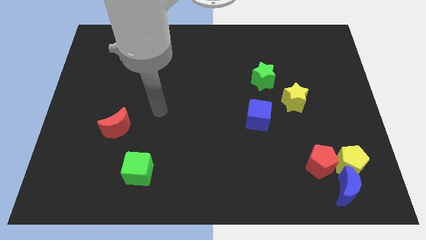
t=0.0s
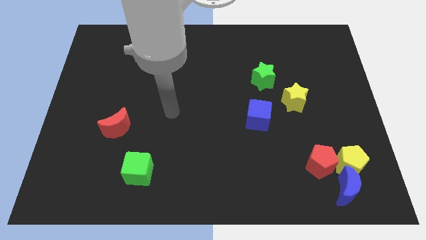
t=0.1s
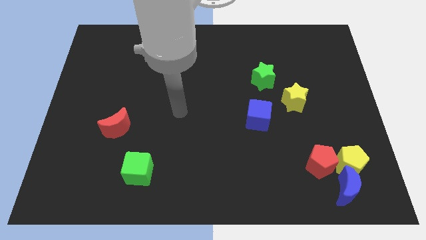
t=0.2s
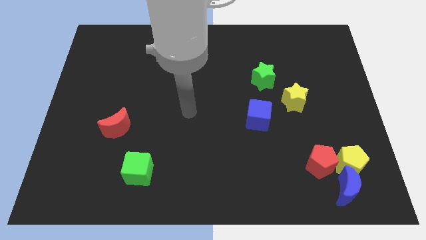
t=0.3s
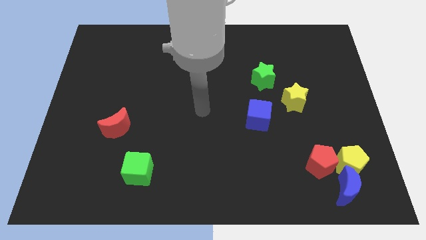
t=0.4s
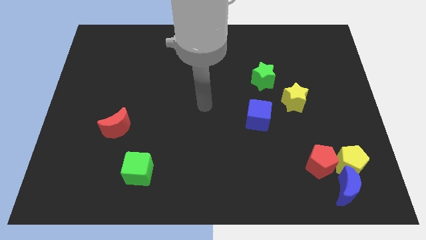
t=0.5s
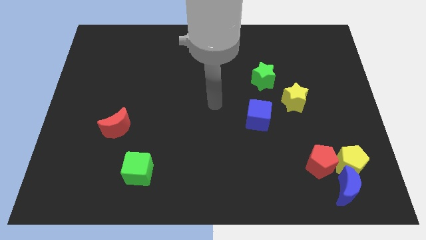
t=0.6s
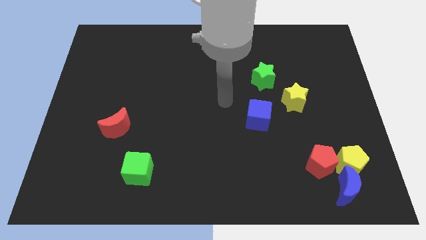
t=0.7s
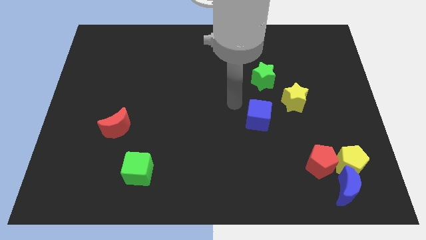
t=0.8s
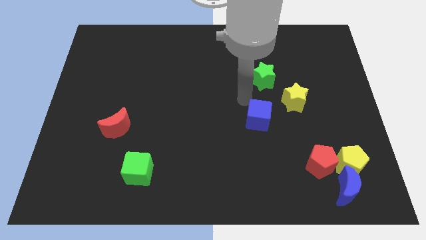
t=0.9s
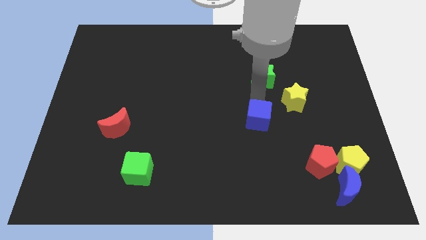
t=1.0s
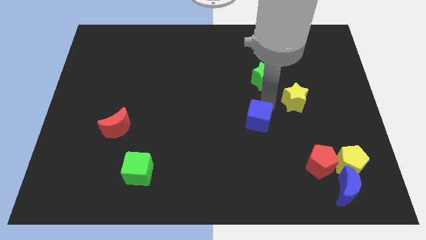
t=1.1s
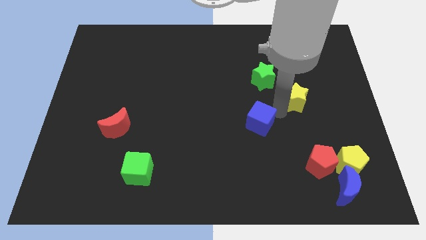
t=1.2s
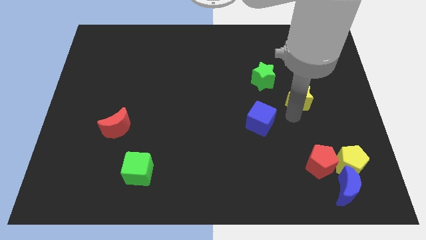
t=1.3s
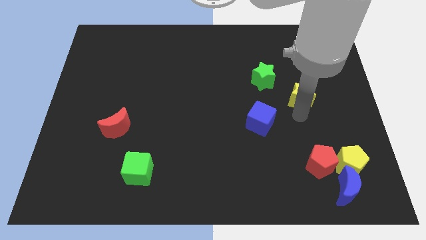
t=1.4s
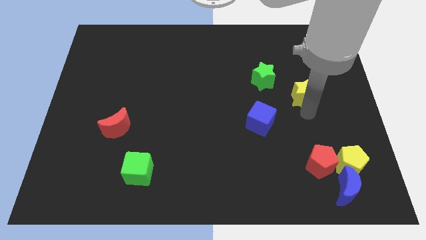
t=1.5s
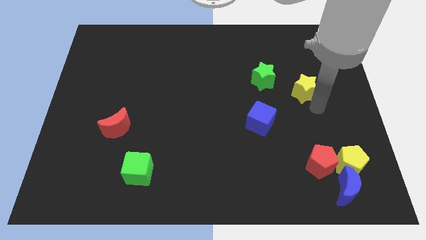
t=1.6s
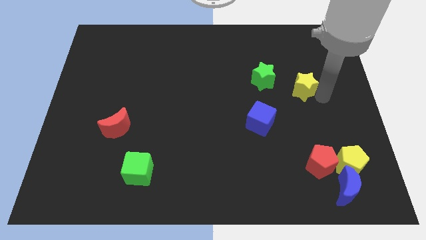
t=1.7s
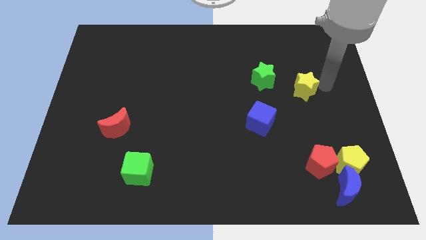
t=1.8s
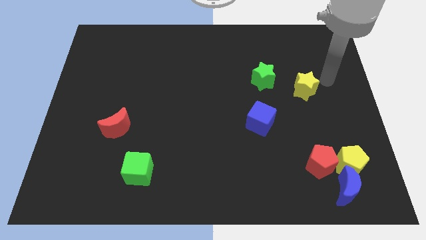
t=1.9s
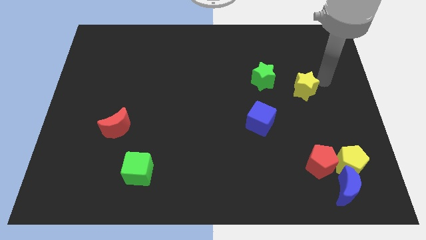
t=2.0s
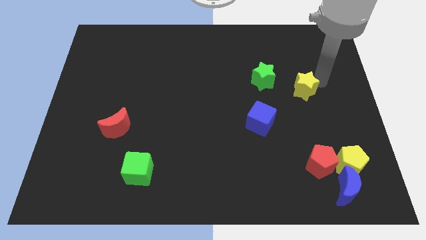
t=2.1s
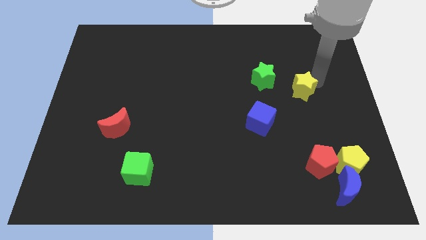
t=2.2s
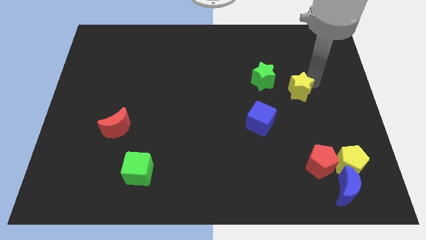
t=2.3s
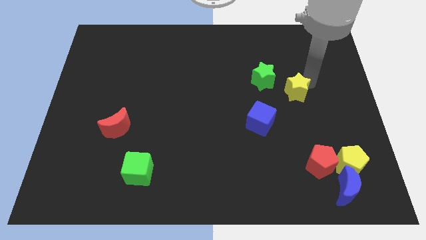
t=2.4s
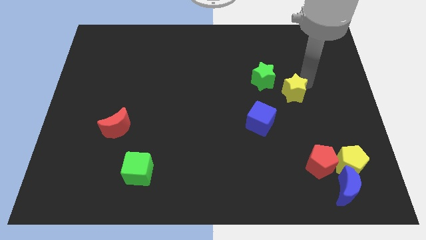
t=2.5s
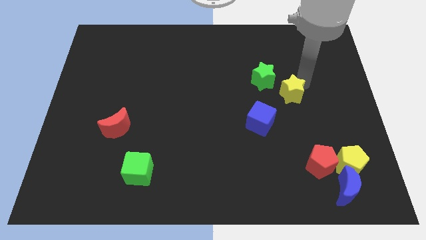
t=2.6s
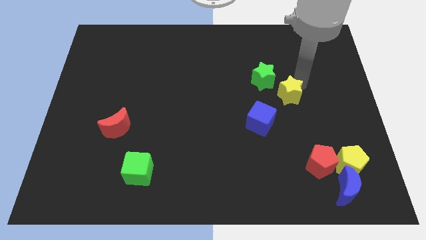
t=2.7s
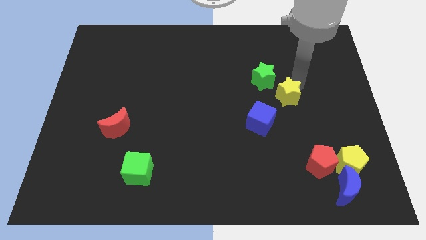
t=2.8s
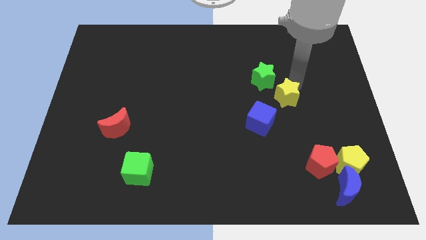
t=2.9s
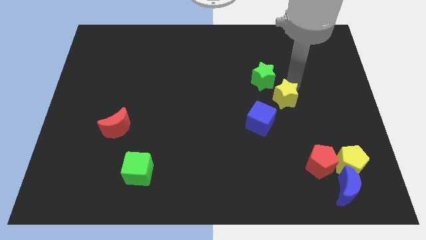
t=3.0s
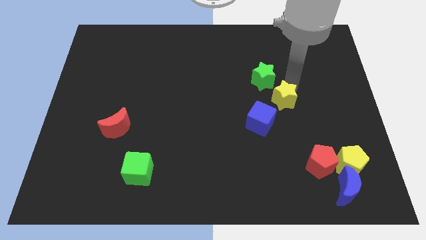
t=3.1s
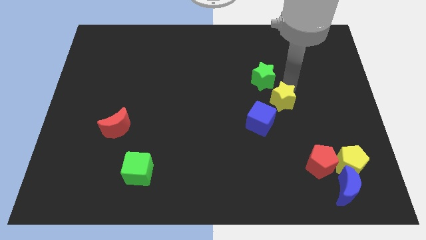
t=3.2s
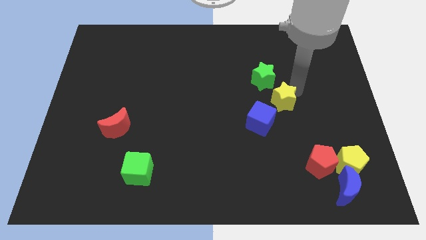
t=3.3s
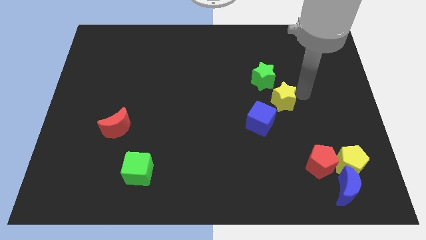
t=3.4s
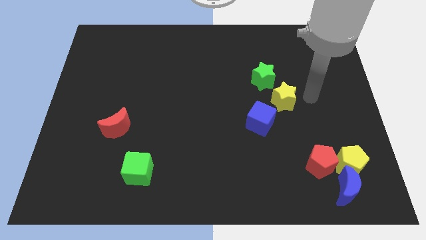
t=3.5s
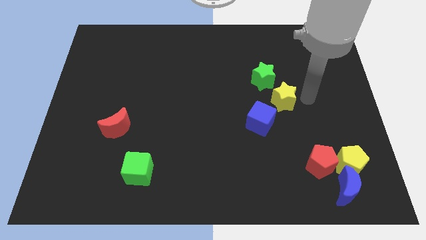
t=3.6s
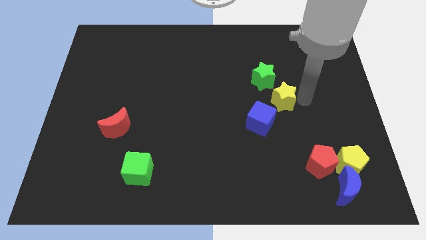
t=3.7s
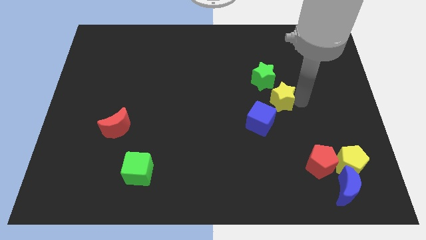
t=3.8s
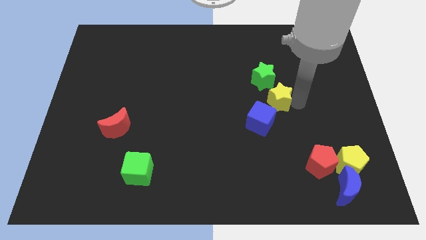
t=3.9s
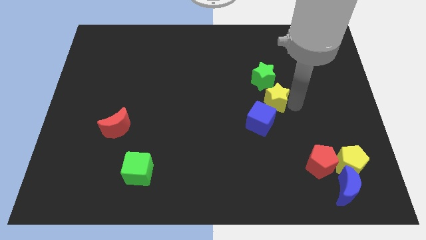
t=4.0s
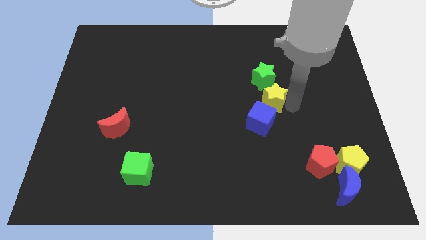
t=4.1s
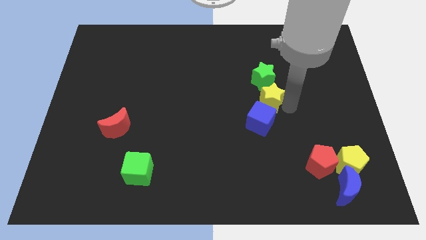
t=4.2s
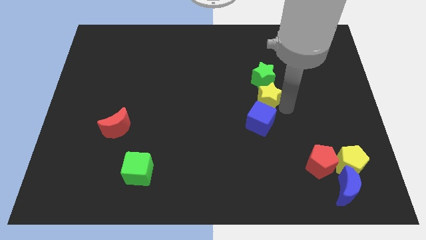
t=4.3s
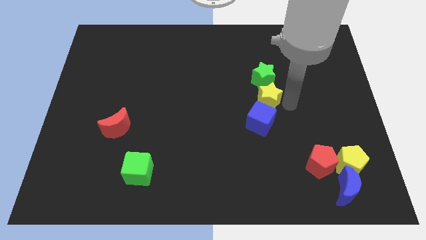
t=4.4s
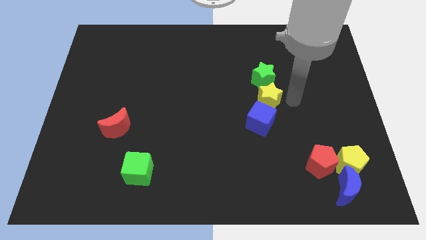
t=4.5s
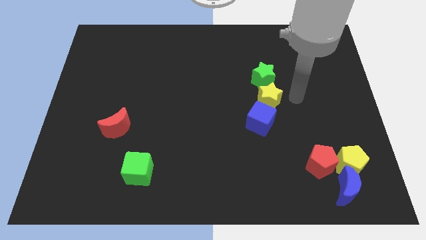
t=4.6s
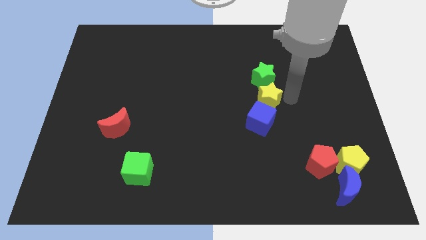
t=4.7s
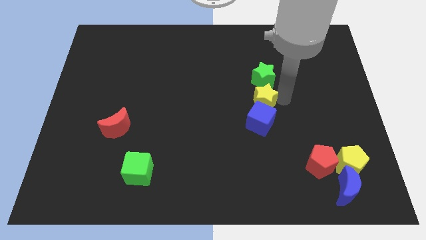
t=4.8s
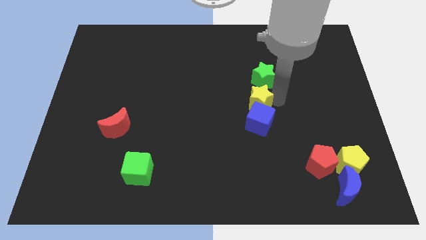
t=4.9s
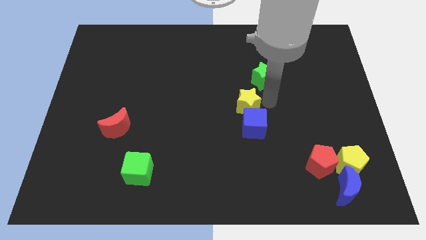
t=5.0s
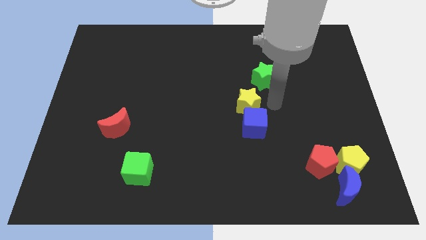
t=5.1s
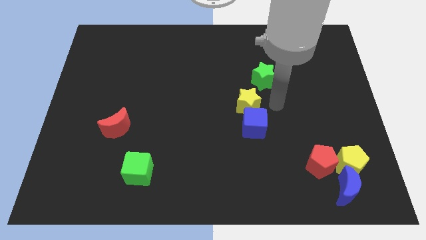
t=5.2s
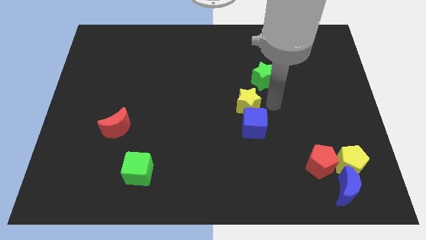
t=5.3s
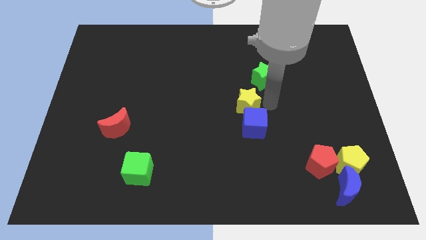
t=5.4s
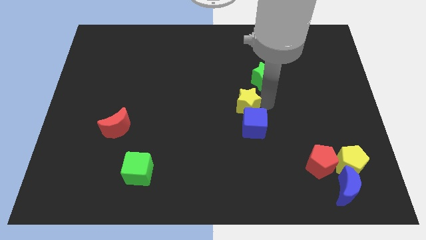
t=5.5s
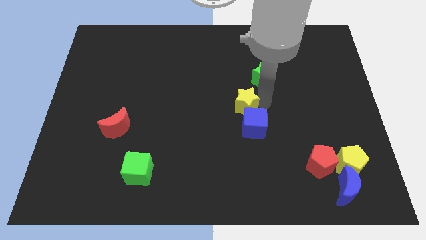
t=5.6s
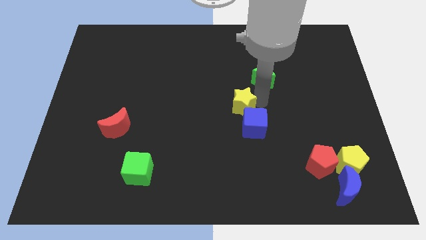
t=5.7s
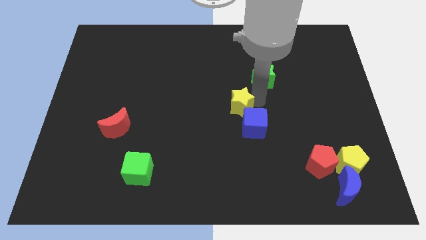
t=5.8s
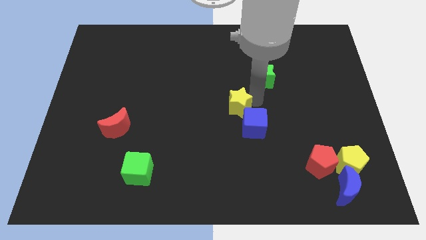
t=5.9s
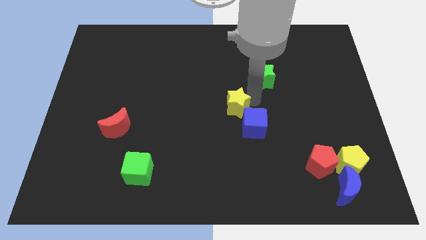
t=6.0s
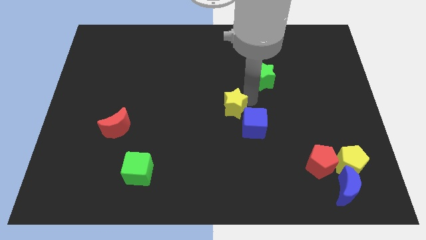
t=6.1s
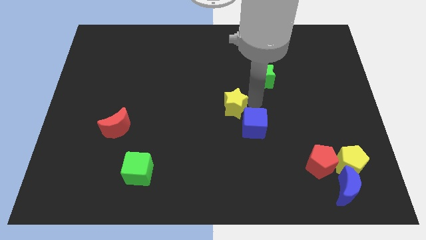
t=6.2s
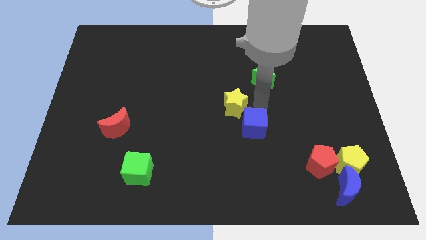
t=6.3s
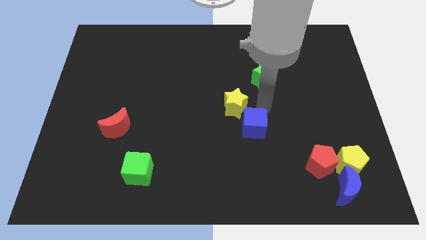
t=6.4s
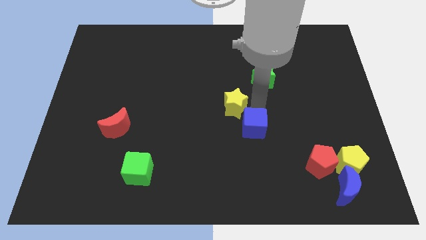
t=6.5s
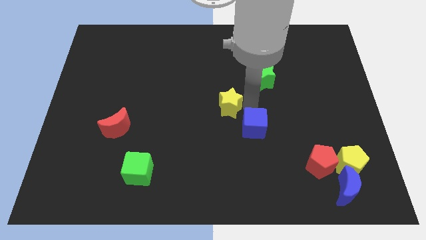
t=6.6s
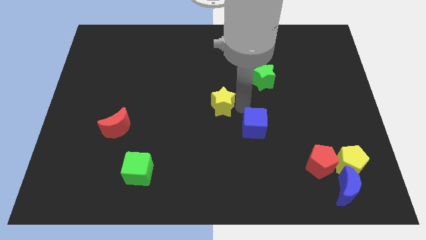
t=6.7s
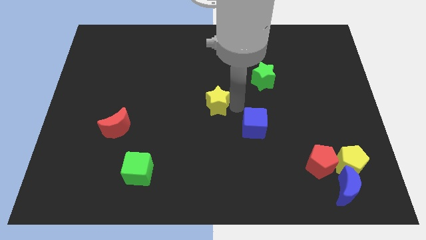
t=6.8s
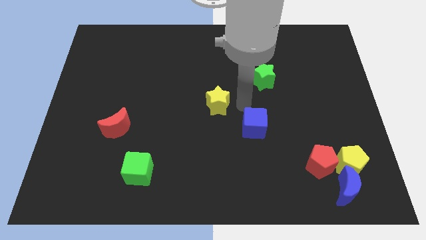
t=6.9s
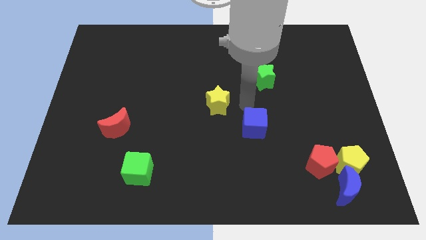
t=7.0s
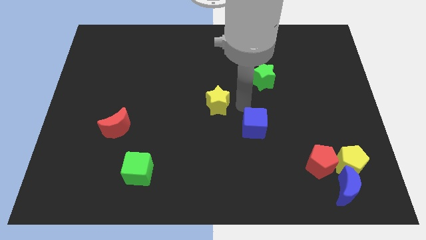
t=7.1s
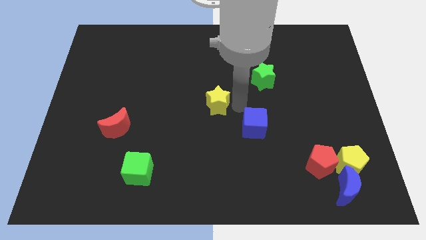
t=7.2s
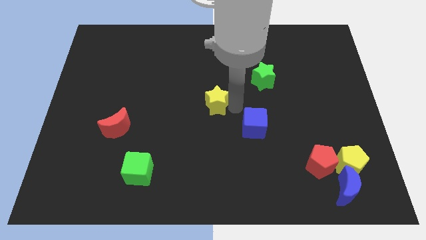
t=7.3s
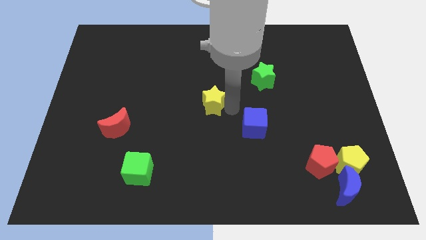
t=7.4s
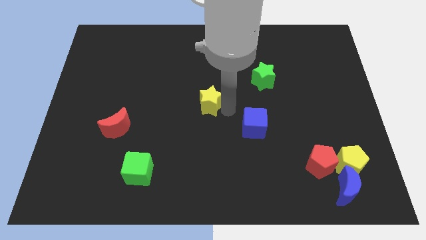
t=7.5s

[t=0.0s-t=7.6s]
move the yellow star left

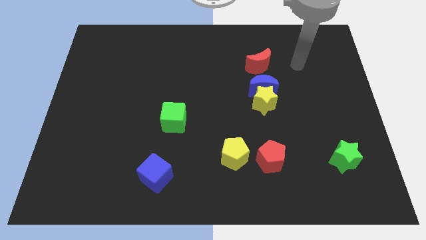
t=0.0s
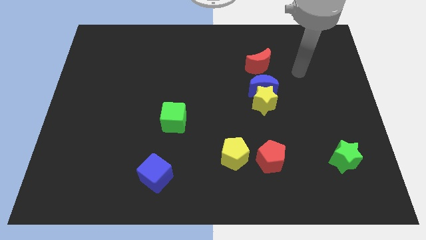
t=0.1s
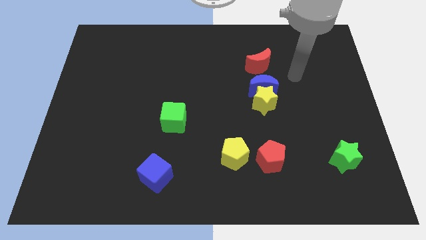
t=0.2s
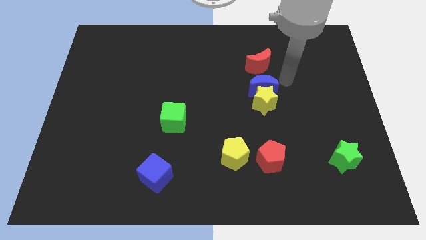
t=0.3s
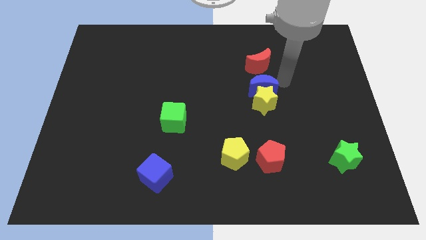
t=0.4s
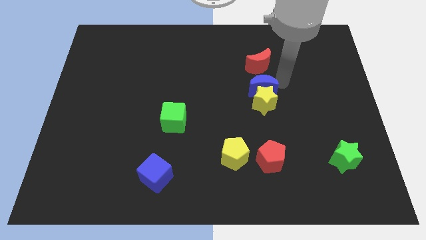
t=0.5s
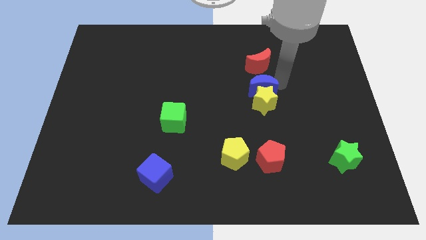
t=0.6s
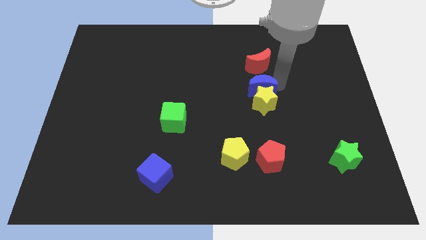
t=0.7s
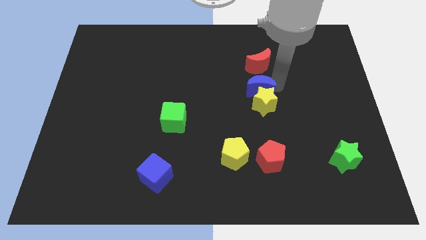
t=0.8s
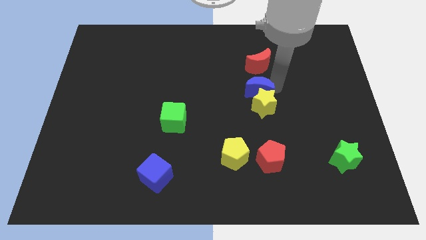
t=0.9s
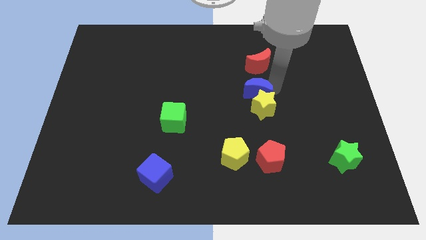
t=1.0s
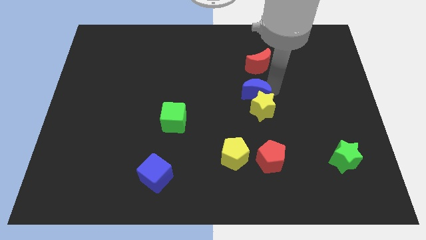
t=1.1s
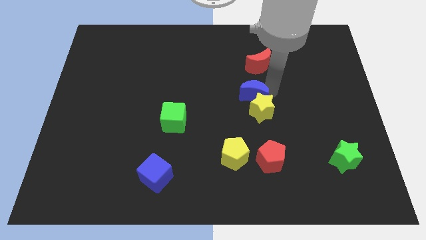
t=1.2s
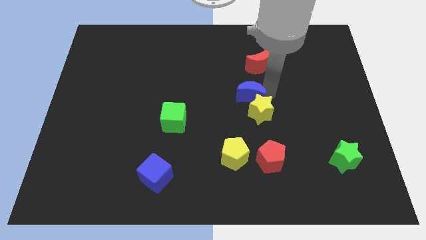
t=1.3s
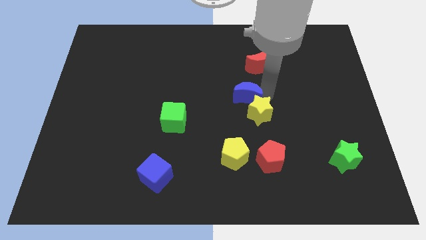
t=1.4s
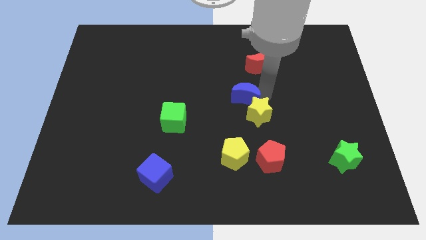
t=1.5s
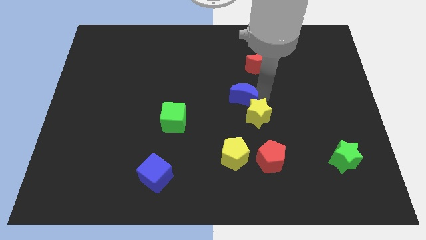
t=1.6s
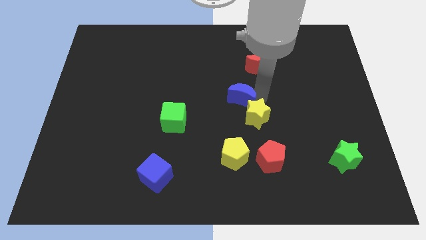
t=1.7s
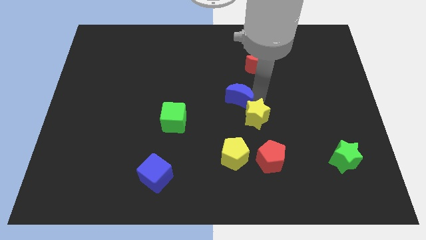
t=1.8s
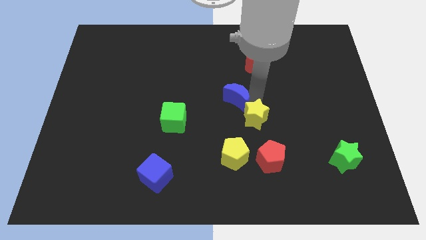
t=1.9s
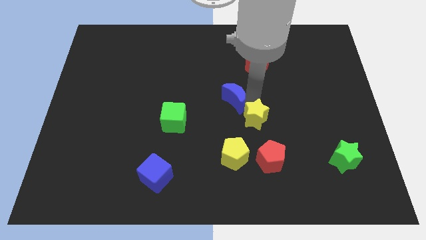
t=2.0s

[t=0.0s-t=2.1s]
slightly push the blue moon diagonally downwards and to the left
